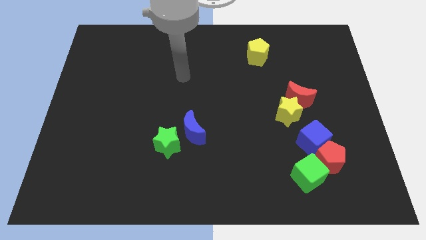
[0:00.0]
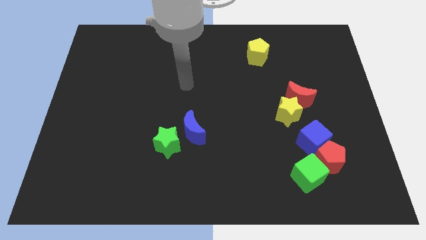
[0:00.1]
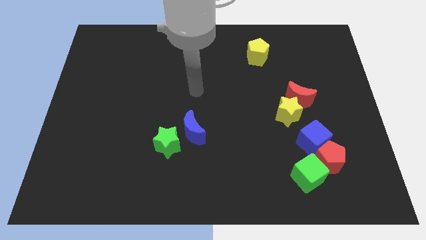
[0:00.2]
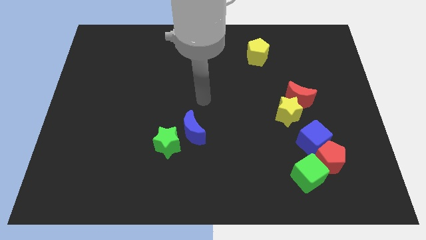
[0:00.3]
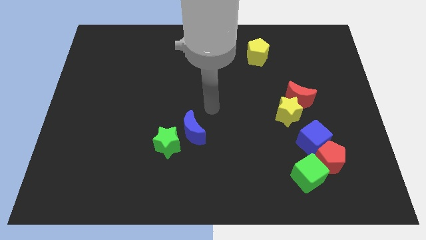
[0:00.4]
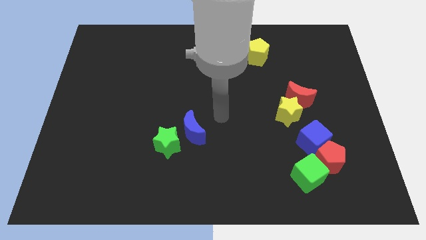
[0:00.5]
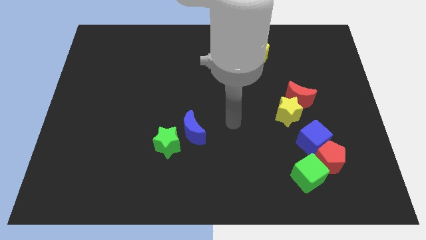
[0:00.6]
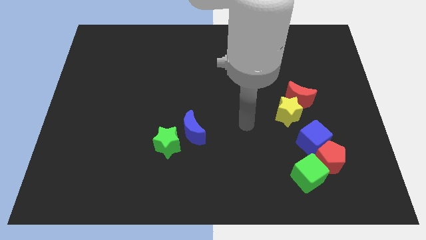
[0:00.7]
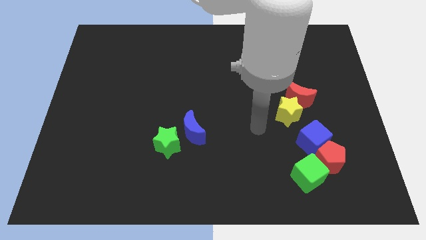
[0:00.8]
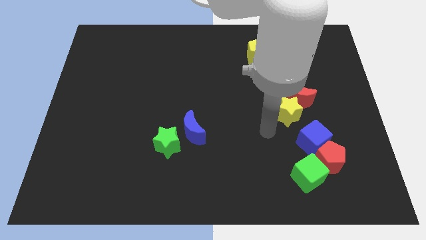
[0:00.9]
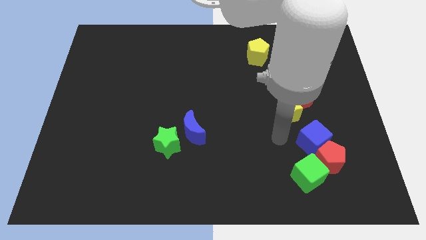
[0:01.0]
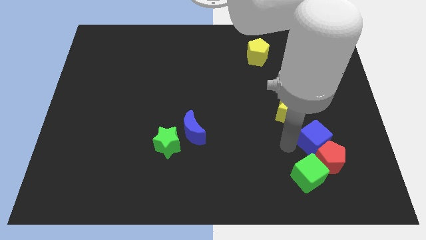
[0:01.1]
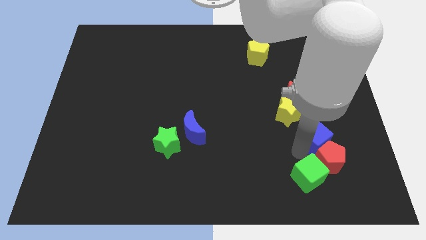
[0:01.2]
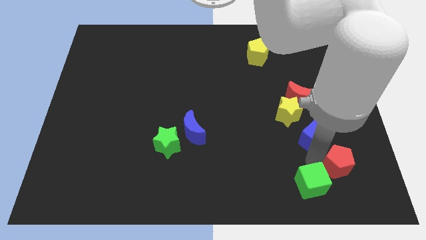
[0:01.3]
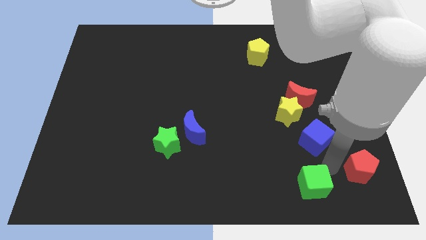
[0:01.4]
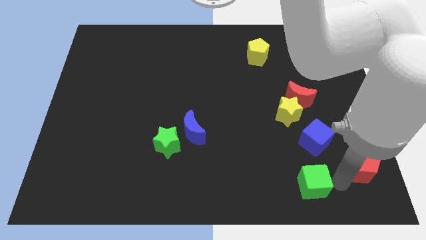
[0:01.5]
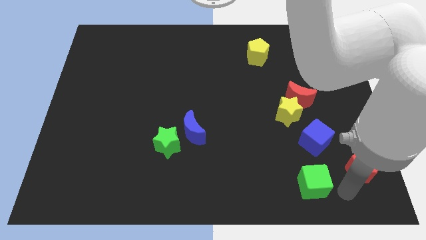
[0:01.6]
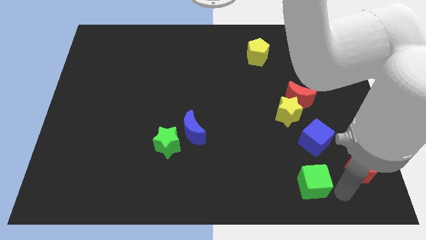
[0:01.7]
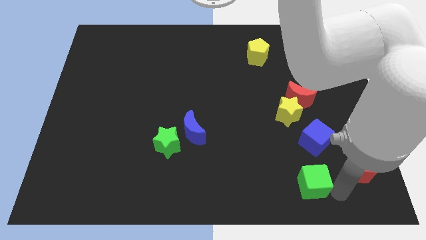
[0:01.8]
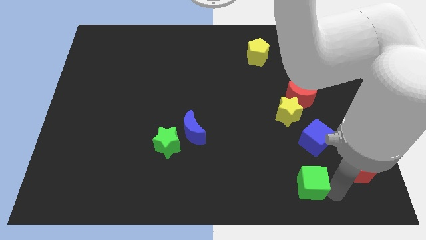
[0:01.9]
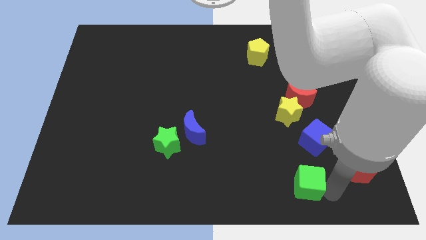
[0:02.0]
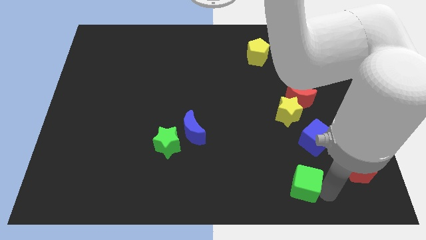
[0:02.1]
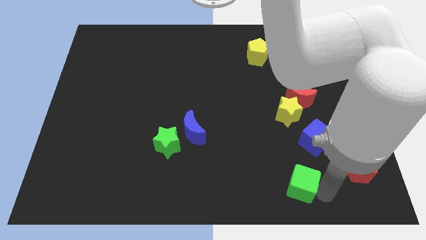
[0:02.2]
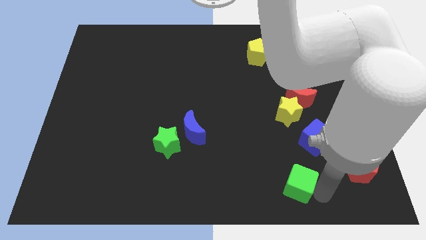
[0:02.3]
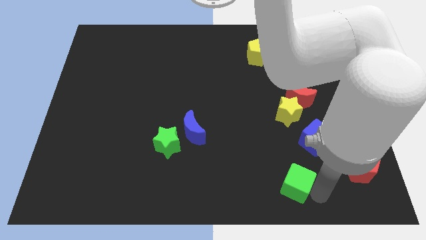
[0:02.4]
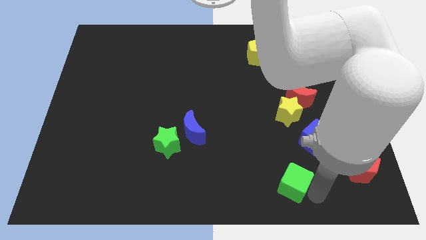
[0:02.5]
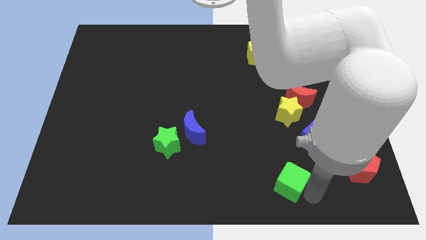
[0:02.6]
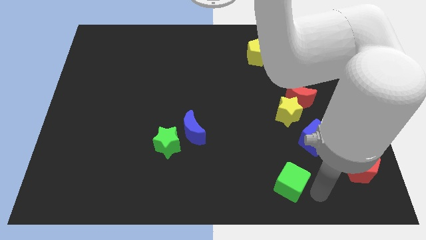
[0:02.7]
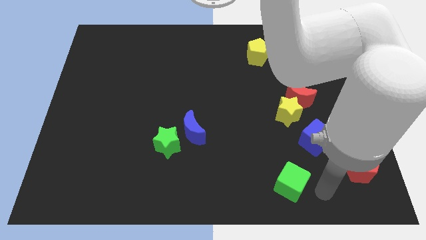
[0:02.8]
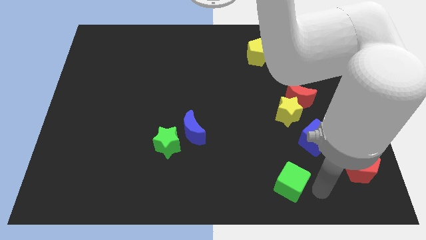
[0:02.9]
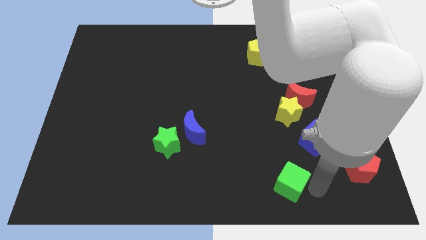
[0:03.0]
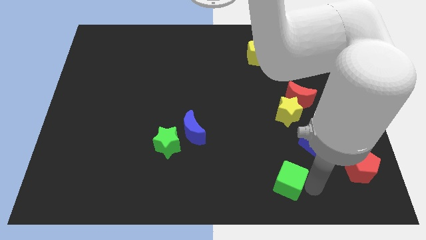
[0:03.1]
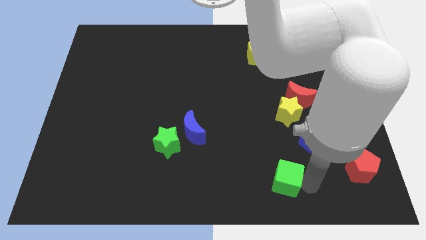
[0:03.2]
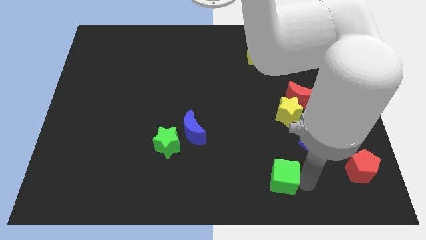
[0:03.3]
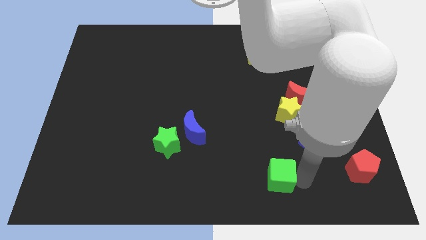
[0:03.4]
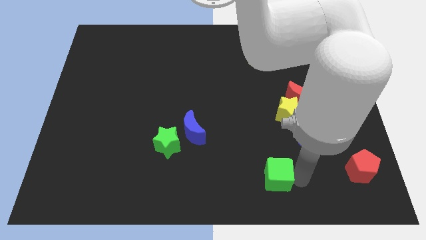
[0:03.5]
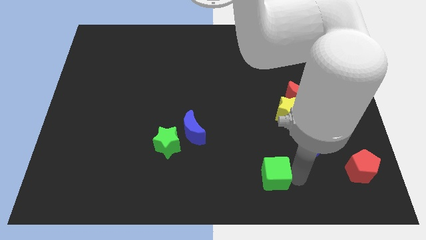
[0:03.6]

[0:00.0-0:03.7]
slide the green cube left a little bit

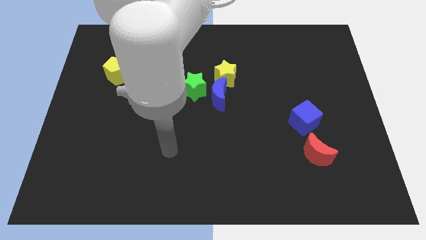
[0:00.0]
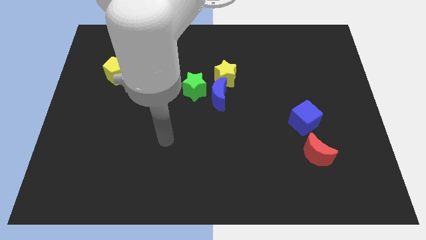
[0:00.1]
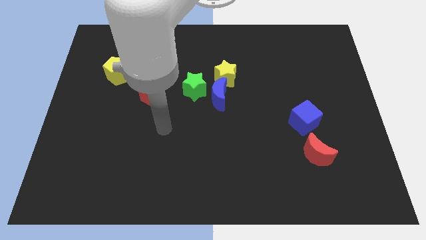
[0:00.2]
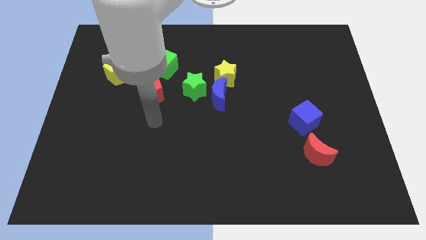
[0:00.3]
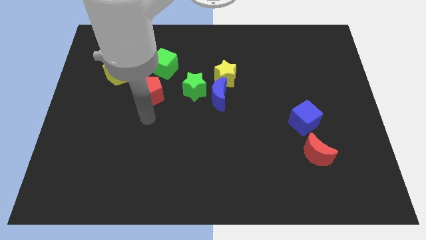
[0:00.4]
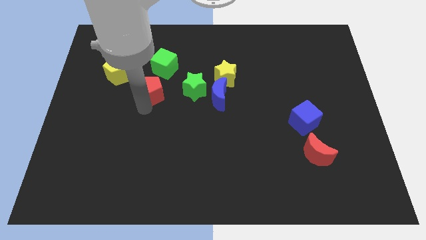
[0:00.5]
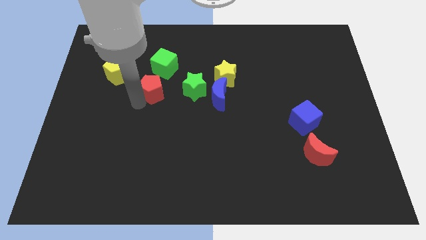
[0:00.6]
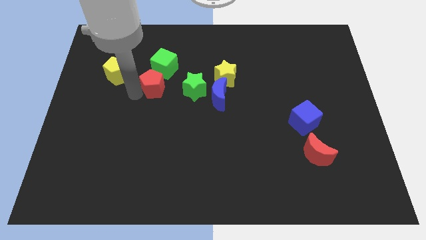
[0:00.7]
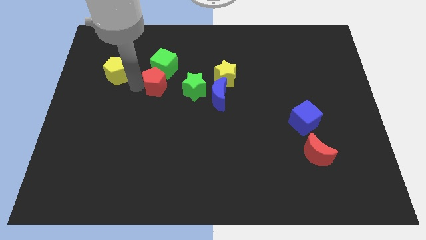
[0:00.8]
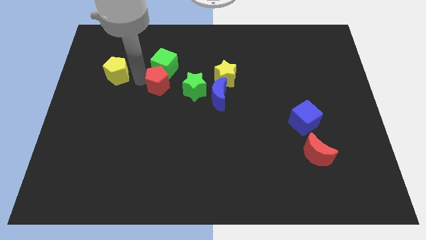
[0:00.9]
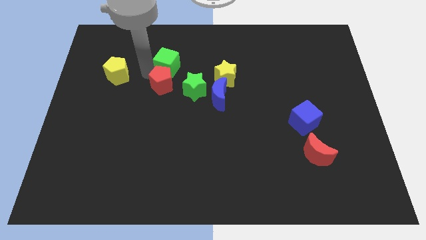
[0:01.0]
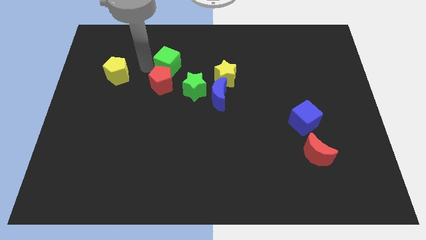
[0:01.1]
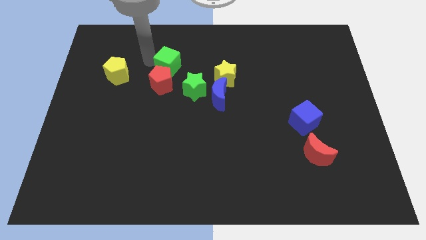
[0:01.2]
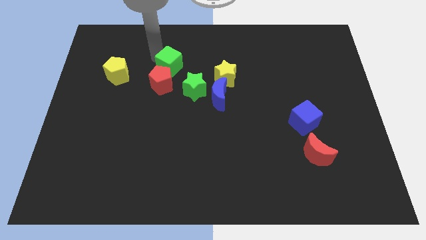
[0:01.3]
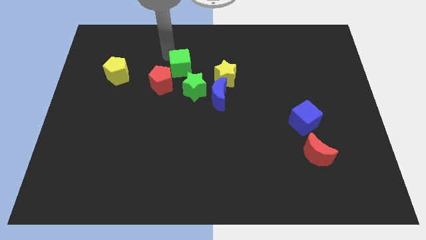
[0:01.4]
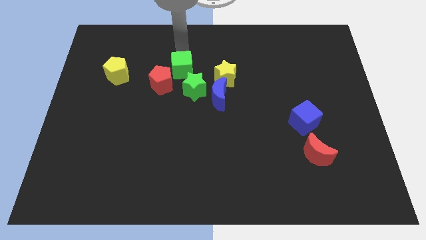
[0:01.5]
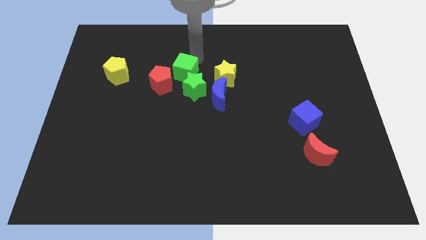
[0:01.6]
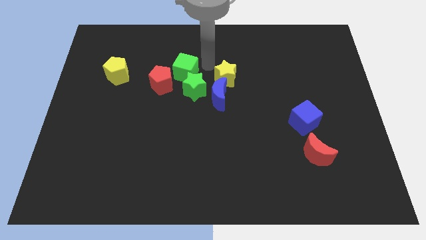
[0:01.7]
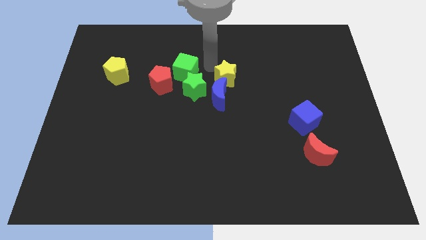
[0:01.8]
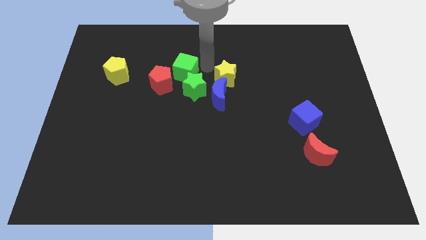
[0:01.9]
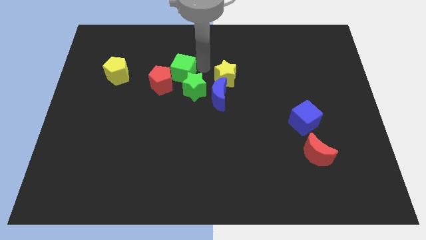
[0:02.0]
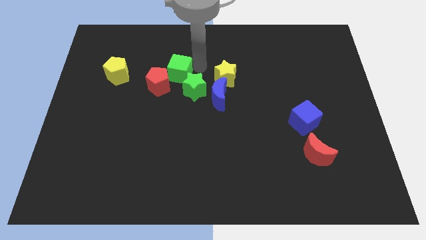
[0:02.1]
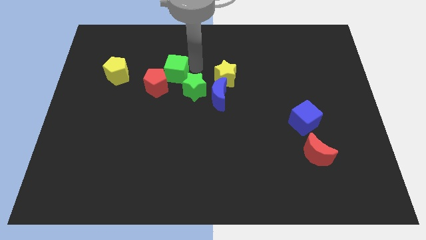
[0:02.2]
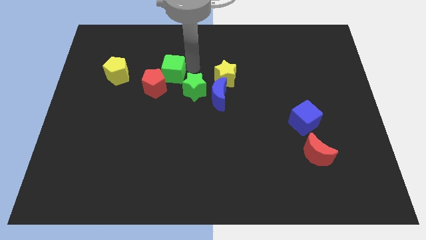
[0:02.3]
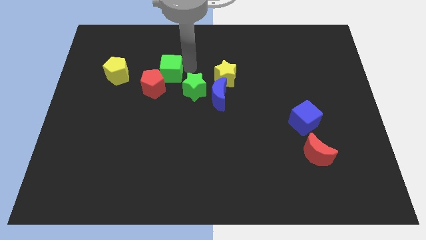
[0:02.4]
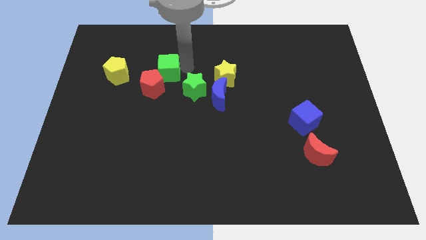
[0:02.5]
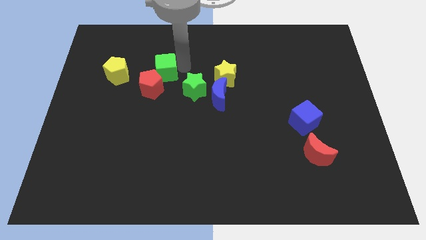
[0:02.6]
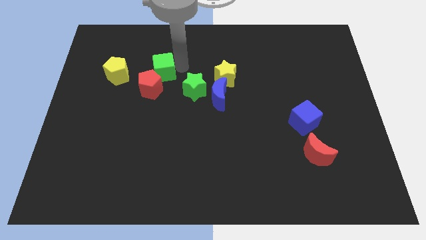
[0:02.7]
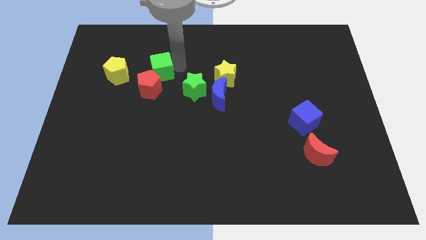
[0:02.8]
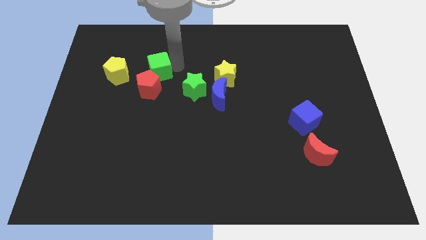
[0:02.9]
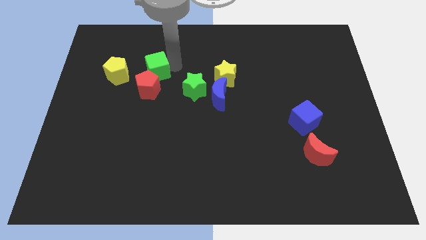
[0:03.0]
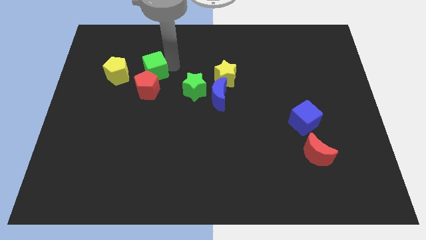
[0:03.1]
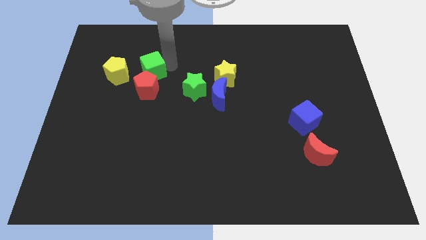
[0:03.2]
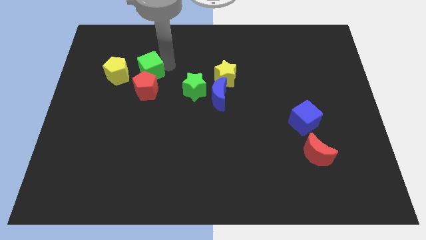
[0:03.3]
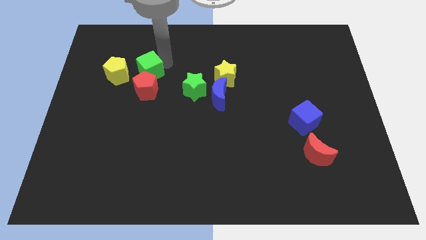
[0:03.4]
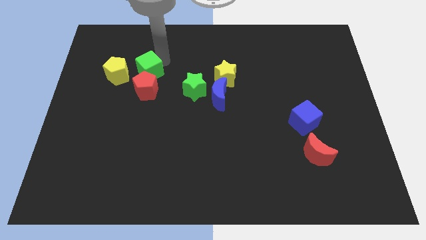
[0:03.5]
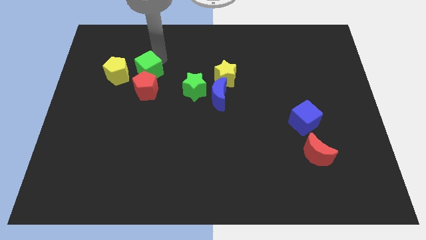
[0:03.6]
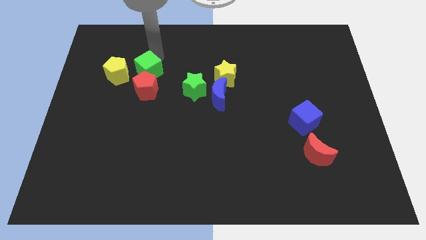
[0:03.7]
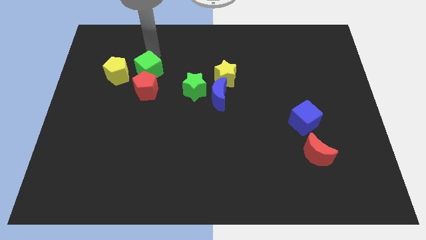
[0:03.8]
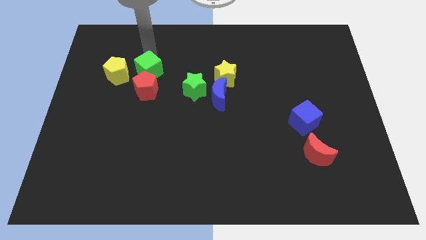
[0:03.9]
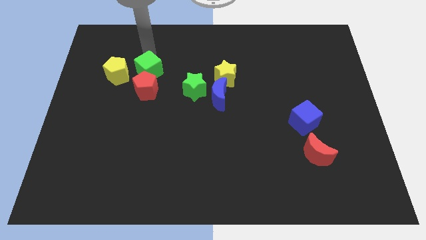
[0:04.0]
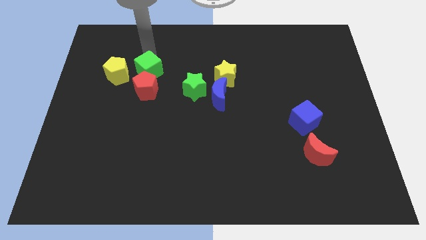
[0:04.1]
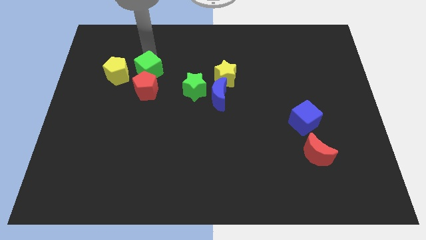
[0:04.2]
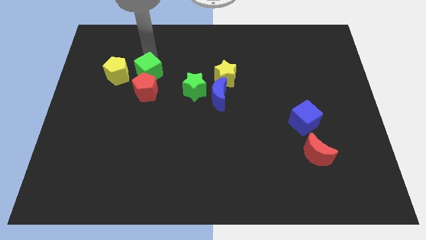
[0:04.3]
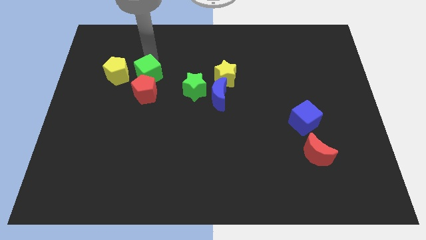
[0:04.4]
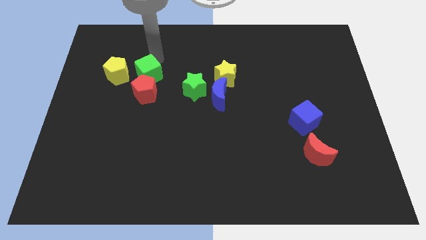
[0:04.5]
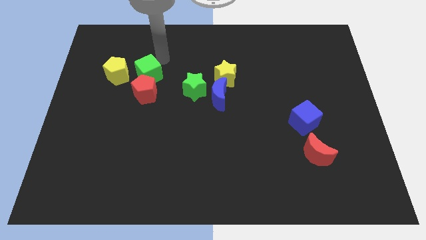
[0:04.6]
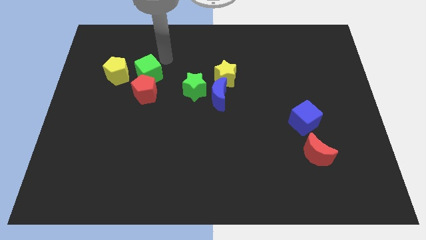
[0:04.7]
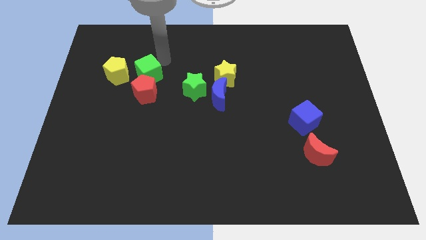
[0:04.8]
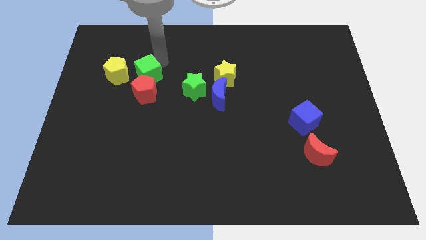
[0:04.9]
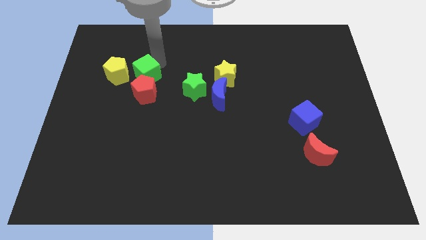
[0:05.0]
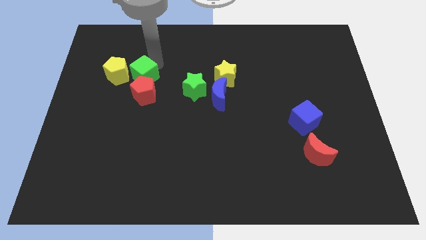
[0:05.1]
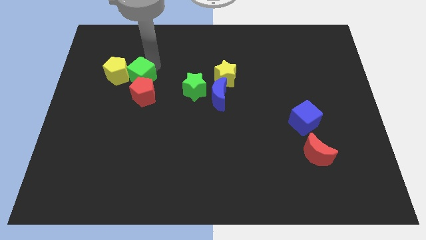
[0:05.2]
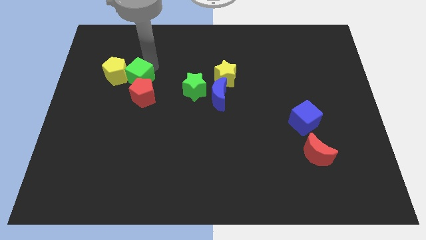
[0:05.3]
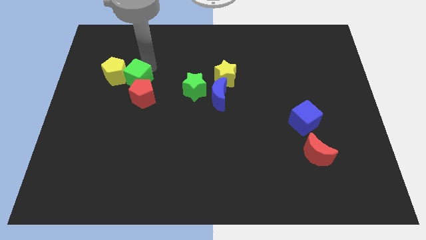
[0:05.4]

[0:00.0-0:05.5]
push the green cube downwards and to the left a bit
